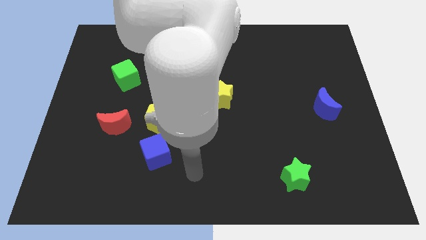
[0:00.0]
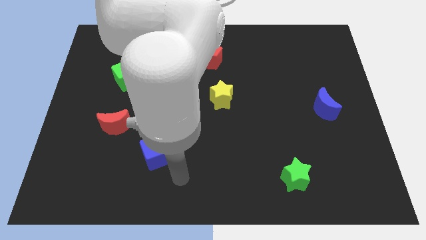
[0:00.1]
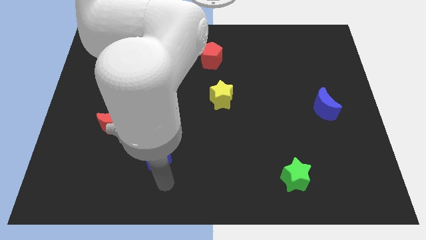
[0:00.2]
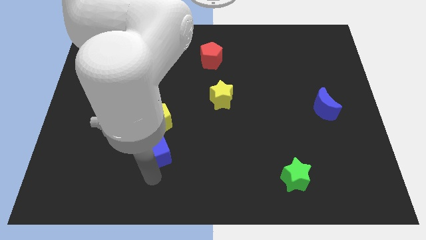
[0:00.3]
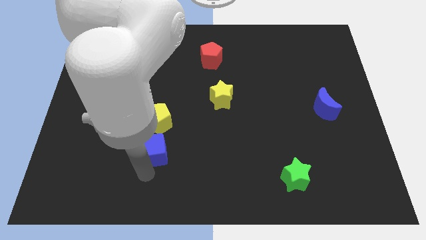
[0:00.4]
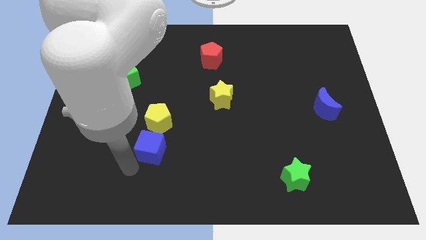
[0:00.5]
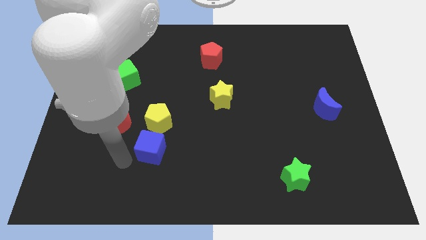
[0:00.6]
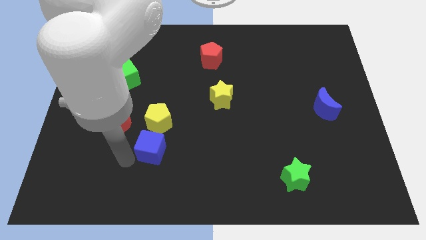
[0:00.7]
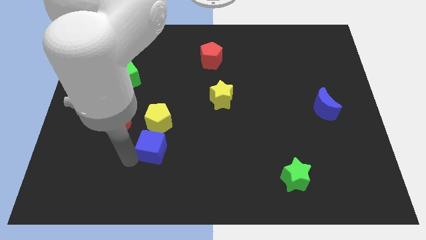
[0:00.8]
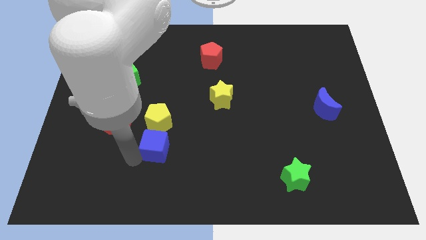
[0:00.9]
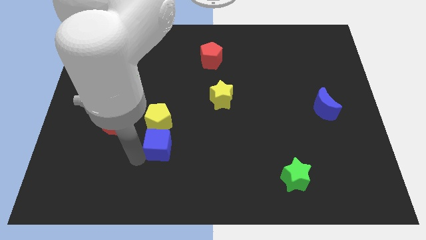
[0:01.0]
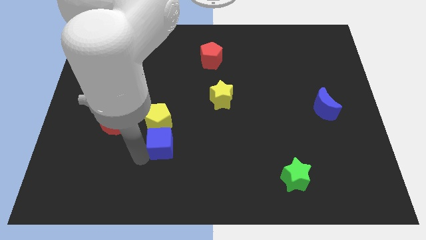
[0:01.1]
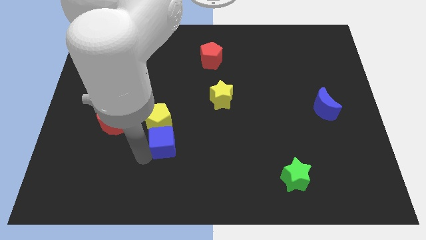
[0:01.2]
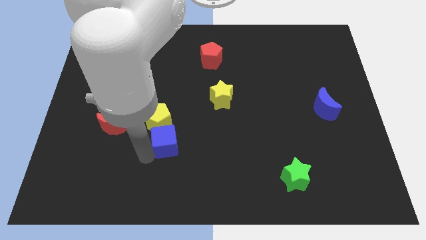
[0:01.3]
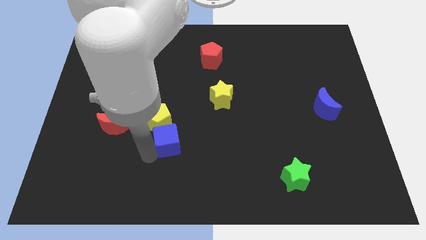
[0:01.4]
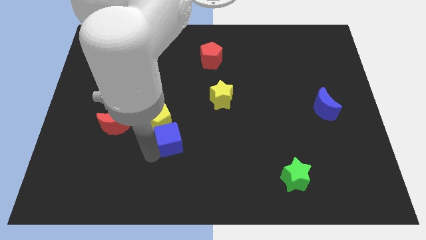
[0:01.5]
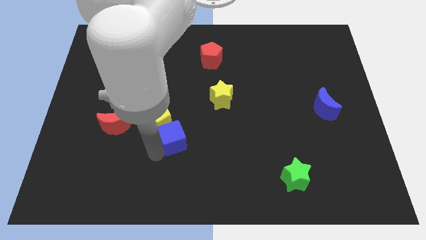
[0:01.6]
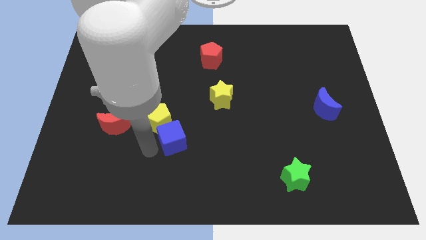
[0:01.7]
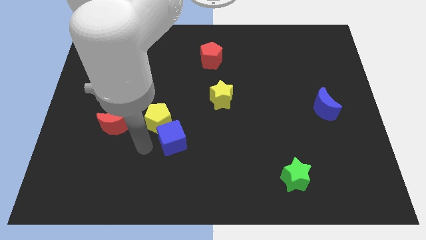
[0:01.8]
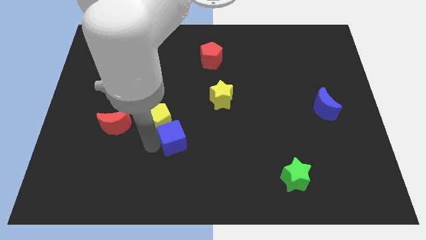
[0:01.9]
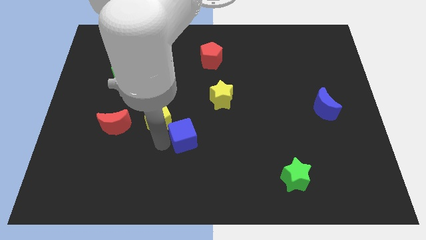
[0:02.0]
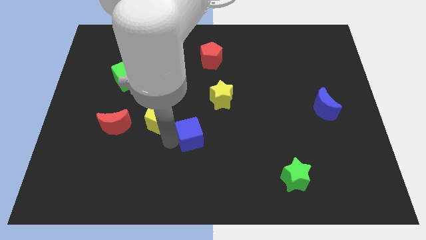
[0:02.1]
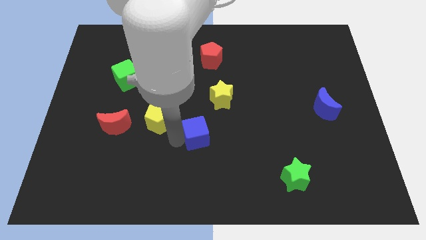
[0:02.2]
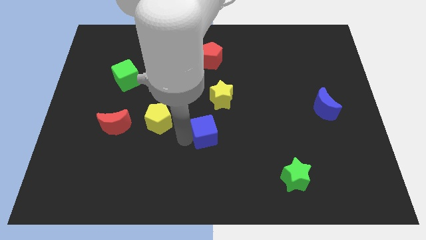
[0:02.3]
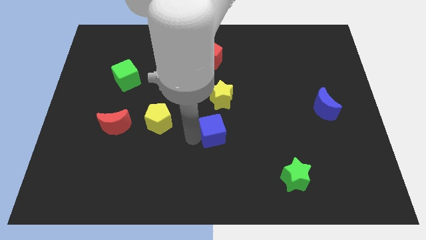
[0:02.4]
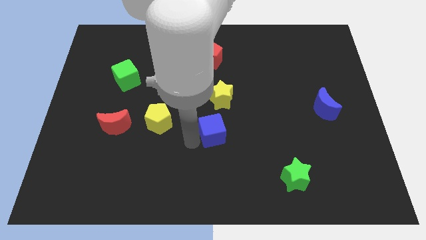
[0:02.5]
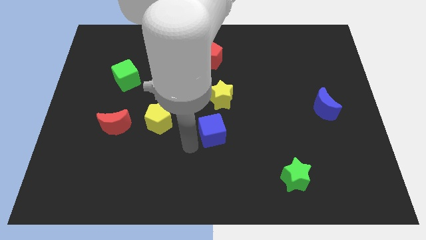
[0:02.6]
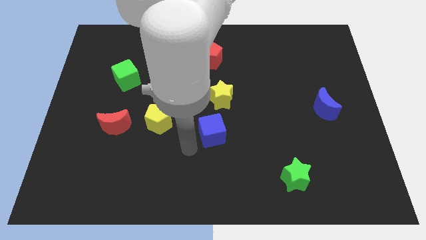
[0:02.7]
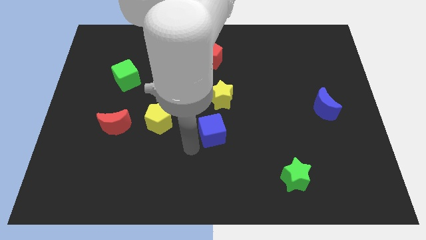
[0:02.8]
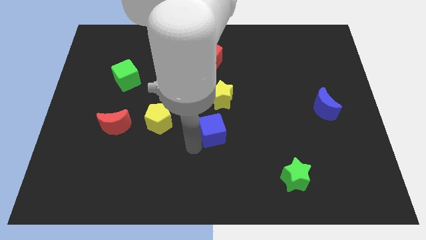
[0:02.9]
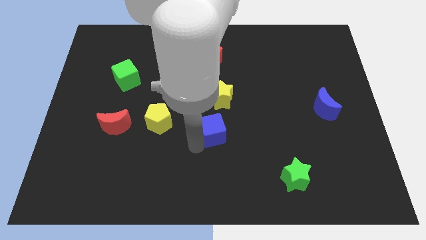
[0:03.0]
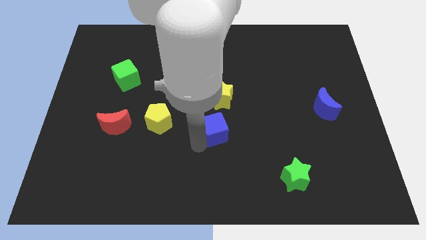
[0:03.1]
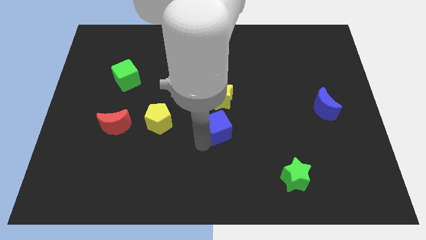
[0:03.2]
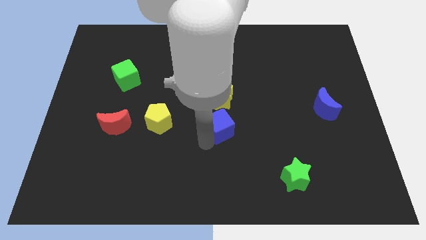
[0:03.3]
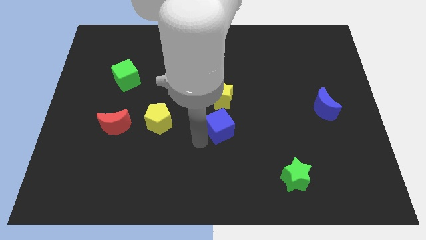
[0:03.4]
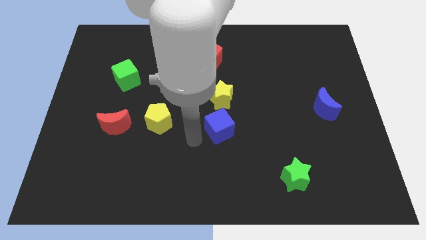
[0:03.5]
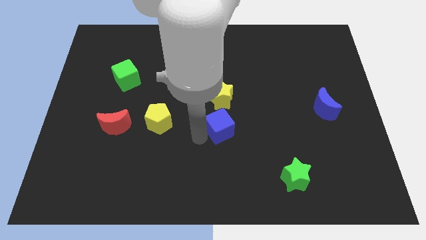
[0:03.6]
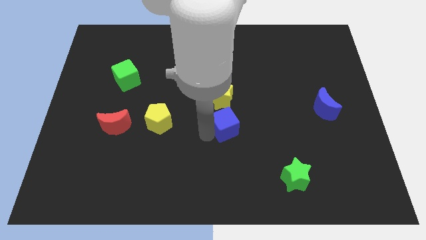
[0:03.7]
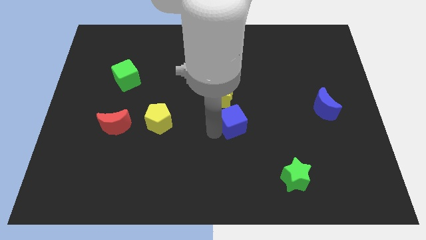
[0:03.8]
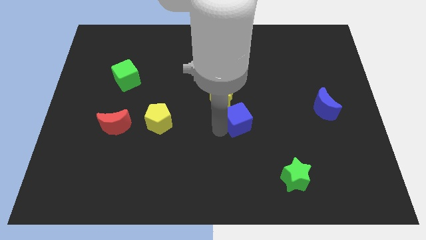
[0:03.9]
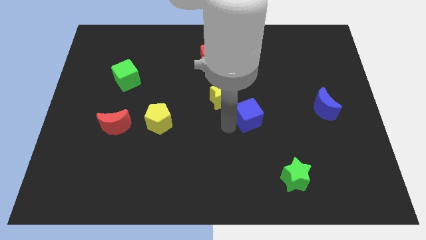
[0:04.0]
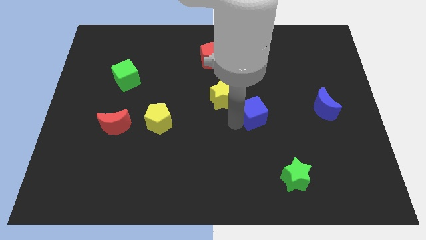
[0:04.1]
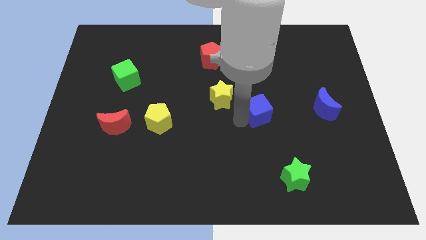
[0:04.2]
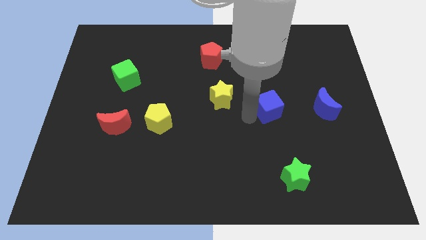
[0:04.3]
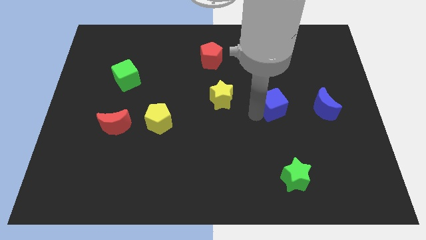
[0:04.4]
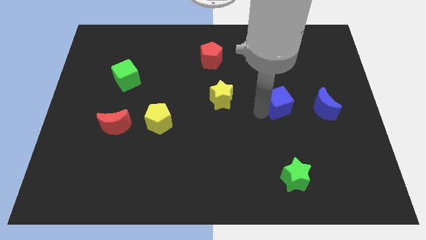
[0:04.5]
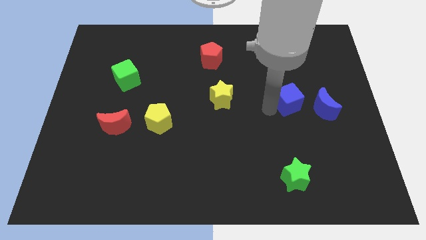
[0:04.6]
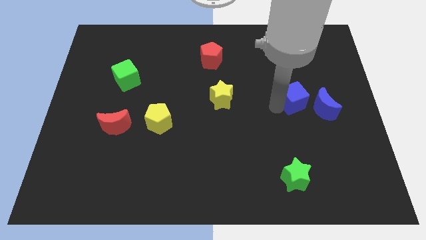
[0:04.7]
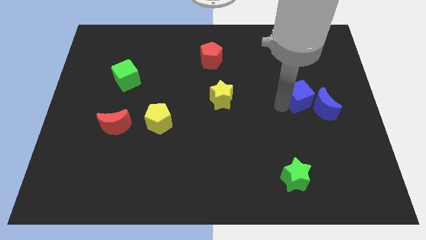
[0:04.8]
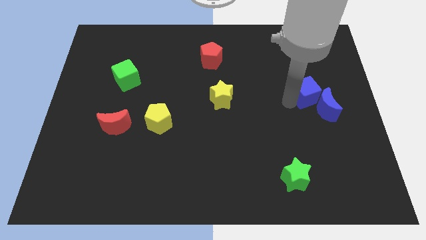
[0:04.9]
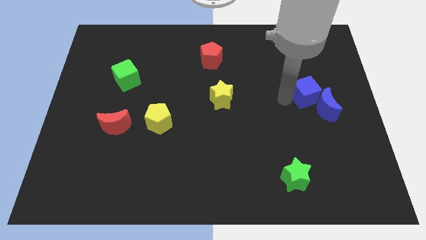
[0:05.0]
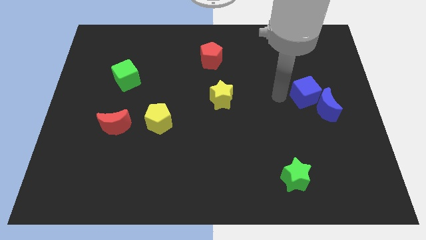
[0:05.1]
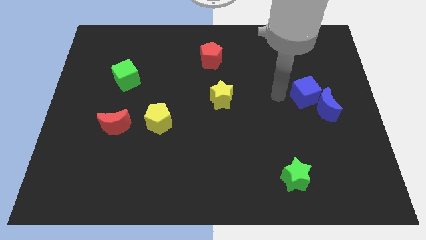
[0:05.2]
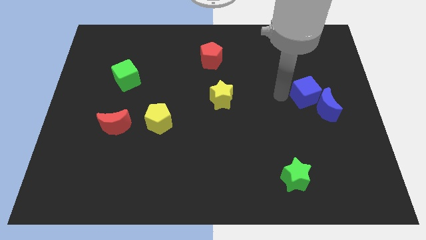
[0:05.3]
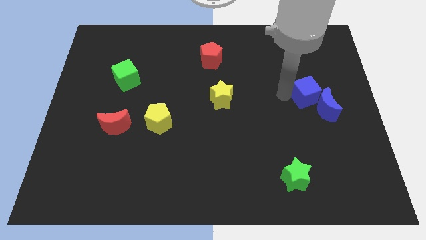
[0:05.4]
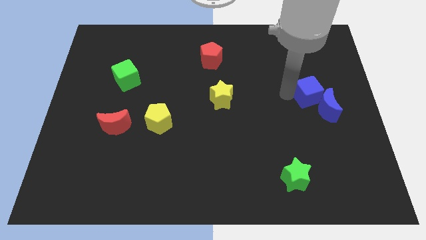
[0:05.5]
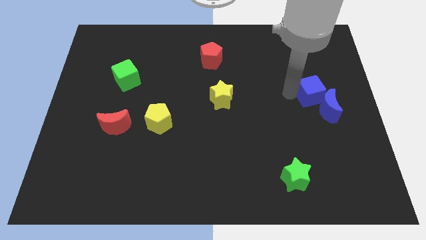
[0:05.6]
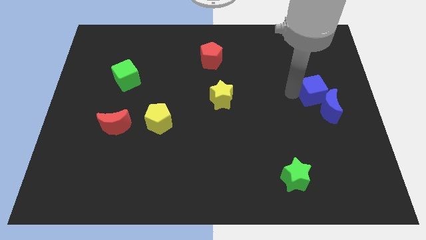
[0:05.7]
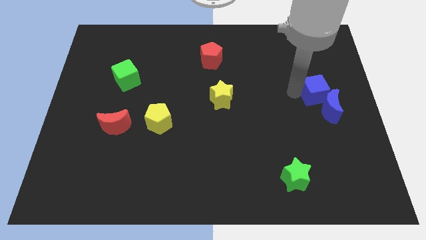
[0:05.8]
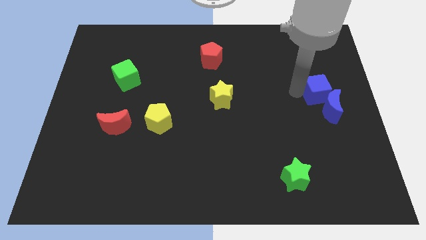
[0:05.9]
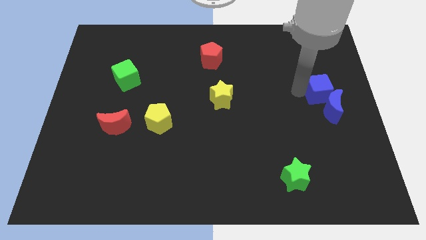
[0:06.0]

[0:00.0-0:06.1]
put the blue cube to the center right

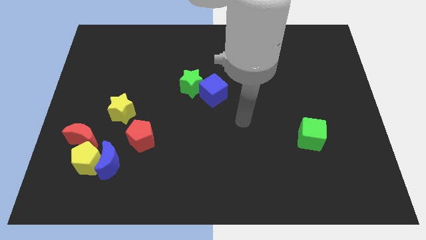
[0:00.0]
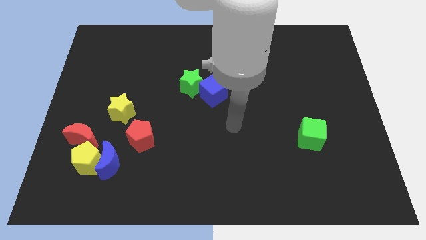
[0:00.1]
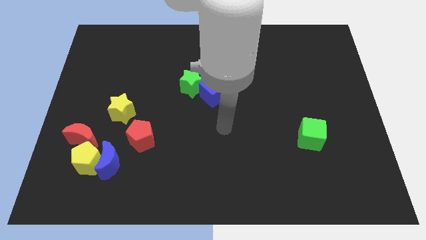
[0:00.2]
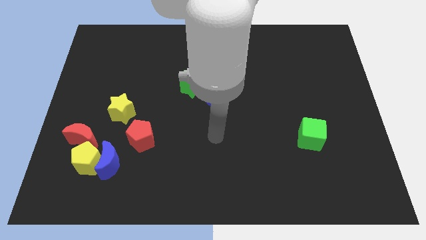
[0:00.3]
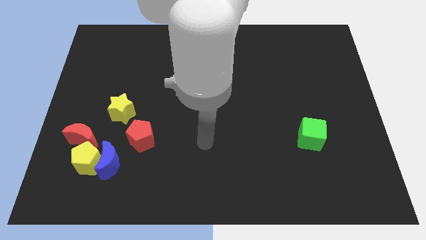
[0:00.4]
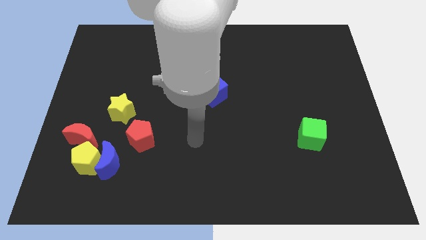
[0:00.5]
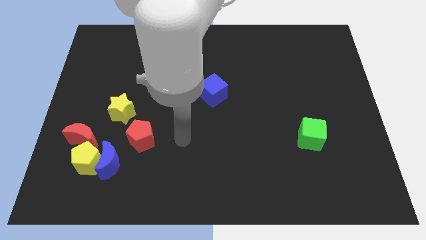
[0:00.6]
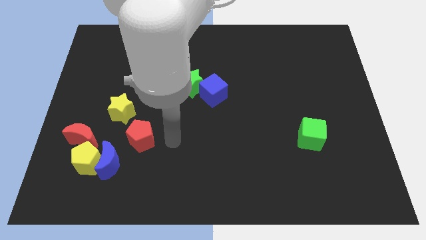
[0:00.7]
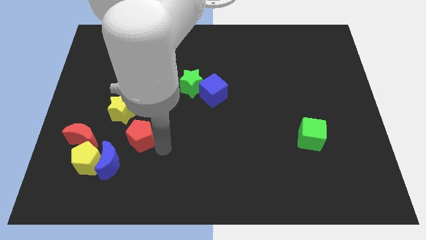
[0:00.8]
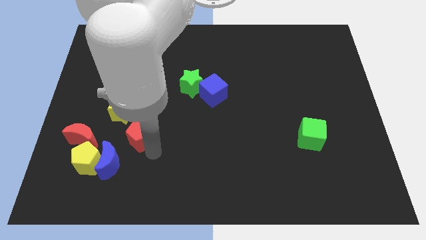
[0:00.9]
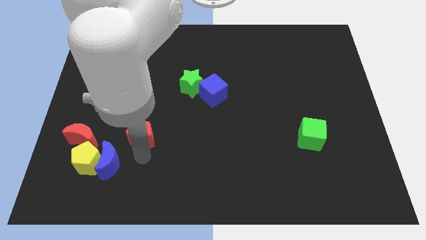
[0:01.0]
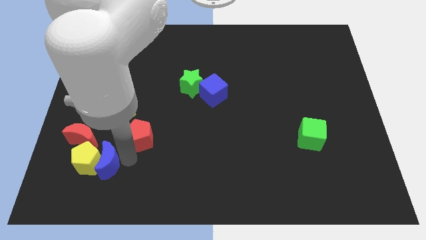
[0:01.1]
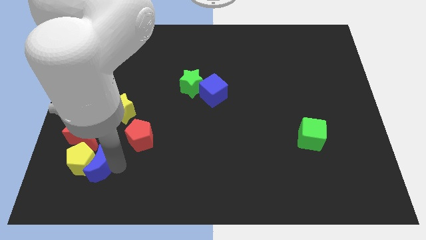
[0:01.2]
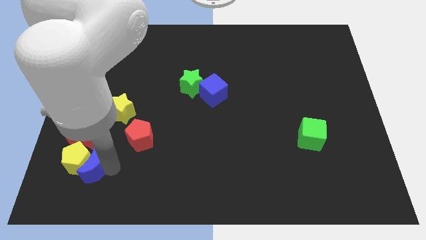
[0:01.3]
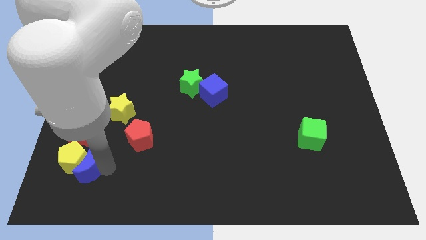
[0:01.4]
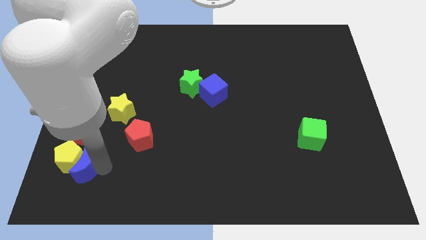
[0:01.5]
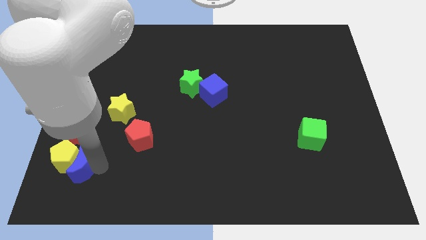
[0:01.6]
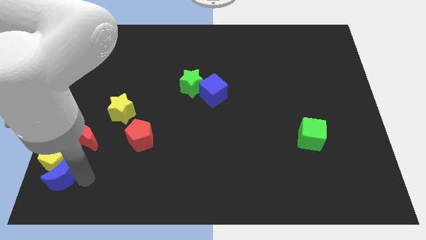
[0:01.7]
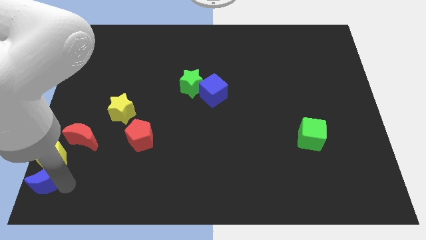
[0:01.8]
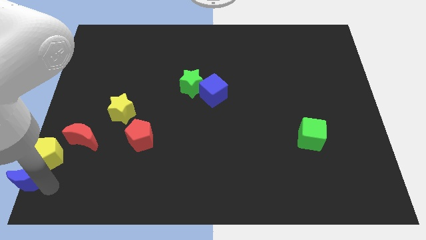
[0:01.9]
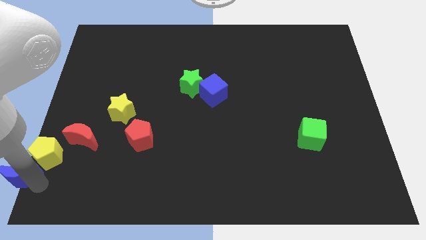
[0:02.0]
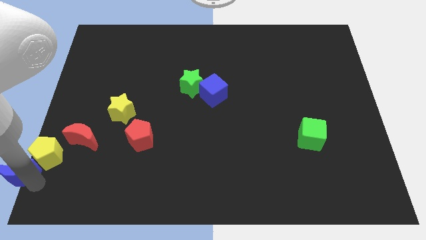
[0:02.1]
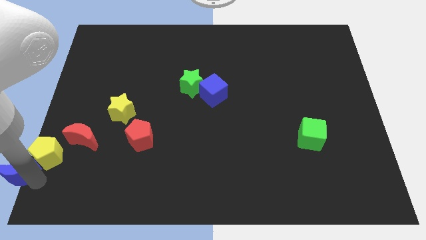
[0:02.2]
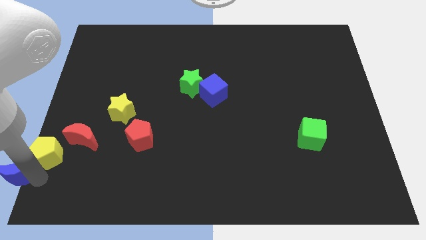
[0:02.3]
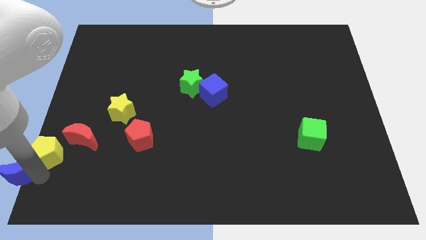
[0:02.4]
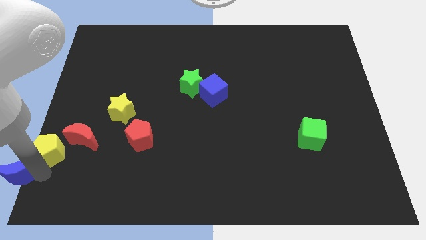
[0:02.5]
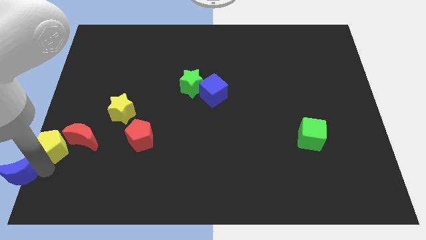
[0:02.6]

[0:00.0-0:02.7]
push the yellow pentagon to the center left
